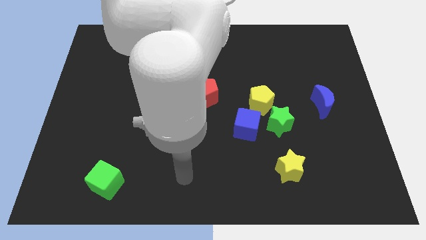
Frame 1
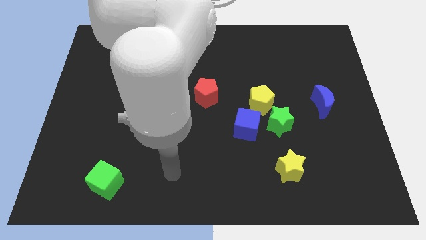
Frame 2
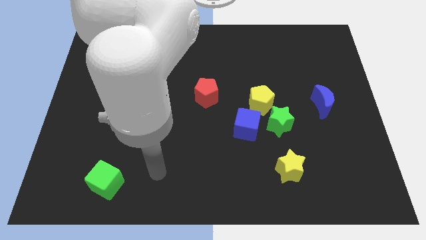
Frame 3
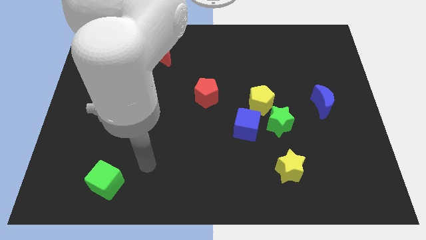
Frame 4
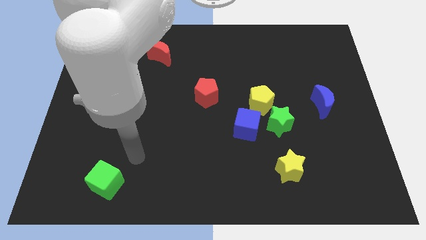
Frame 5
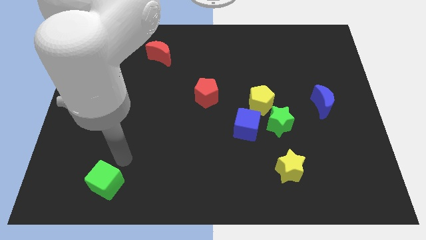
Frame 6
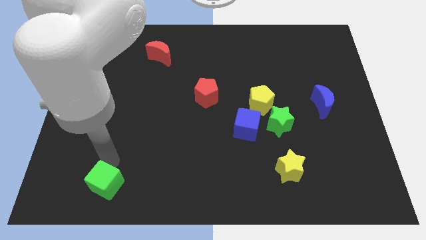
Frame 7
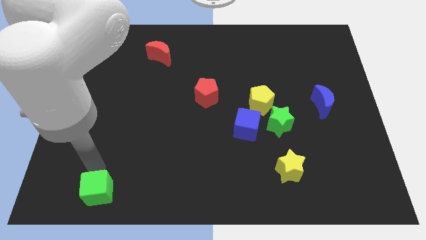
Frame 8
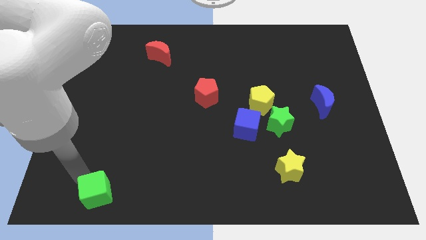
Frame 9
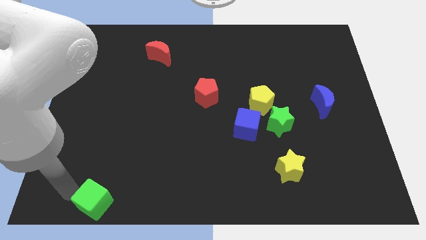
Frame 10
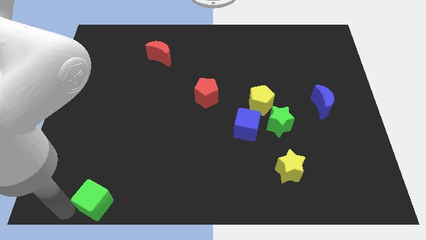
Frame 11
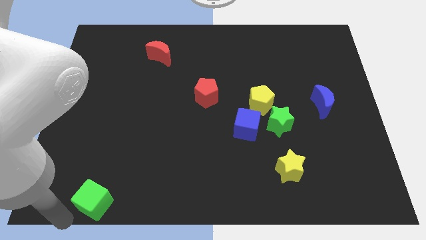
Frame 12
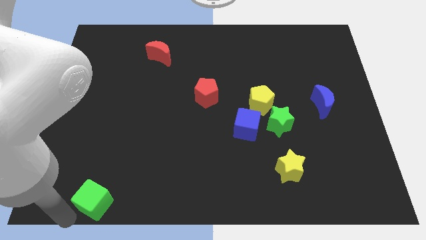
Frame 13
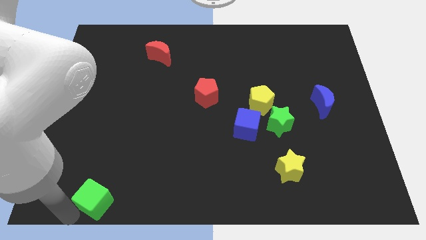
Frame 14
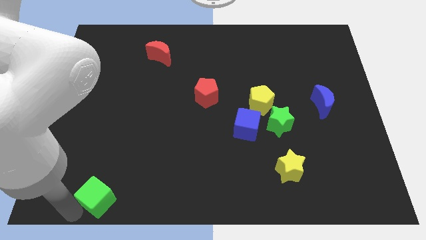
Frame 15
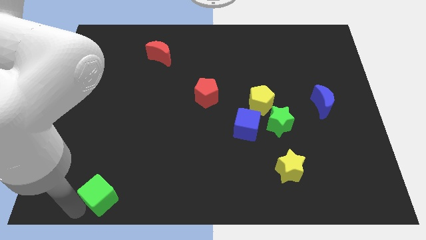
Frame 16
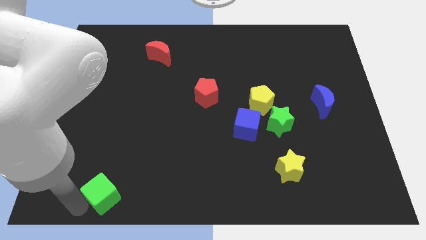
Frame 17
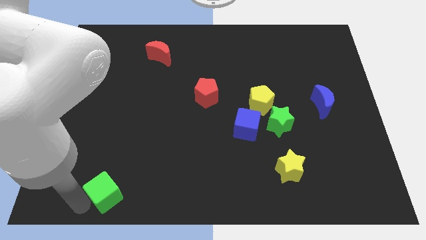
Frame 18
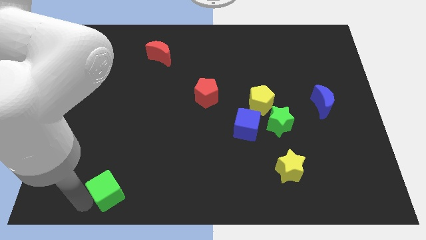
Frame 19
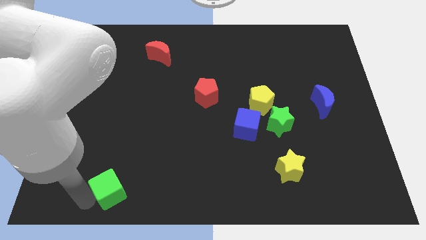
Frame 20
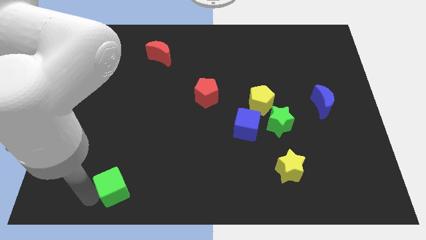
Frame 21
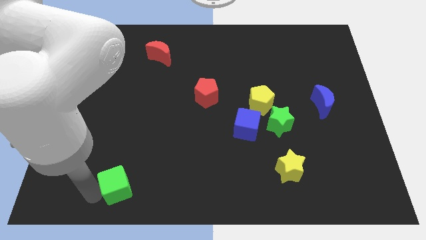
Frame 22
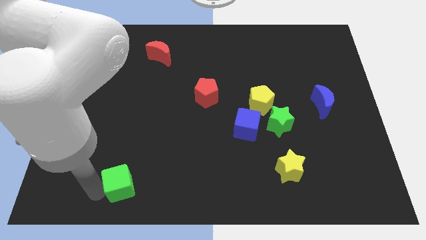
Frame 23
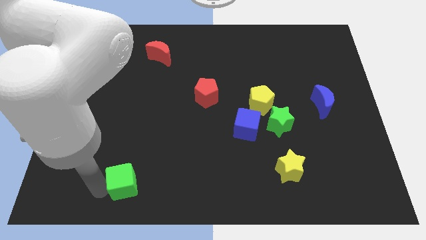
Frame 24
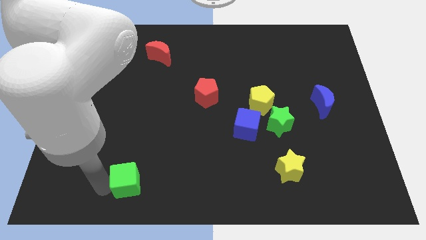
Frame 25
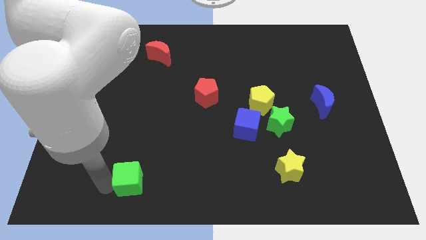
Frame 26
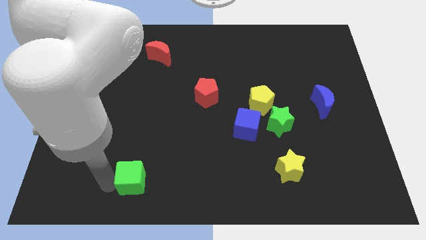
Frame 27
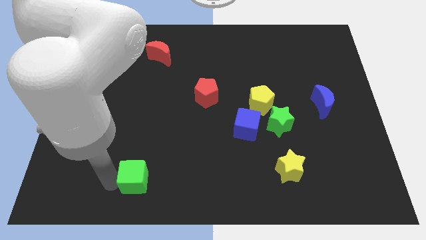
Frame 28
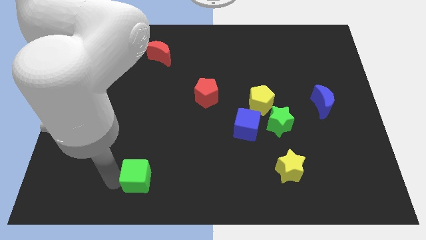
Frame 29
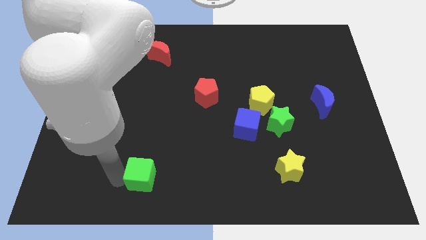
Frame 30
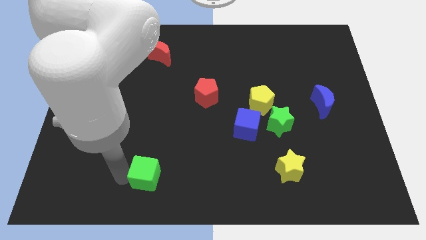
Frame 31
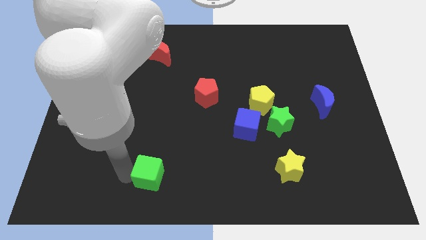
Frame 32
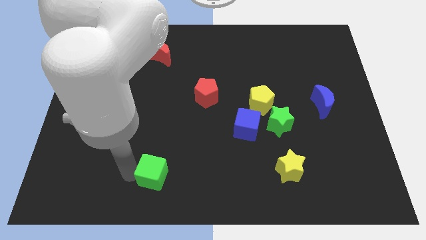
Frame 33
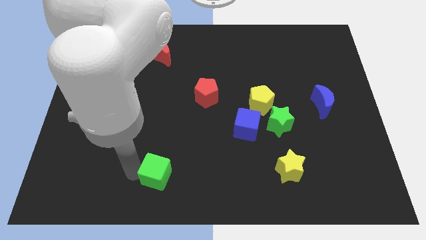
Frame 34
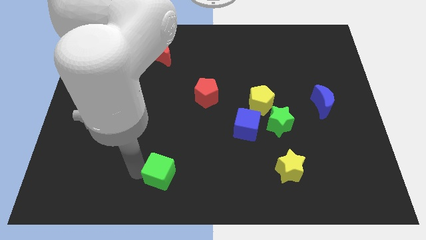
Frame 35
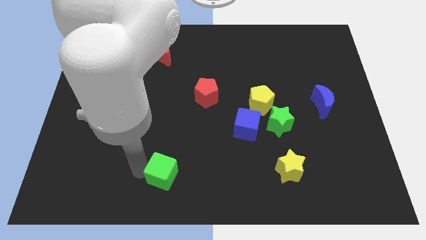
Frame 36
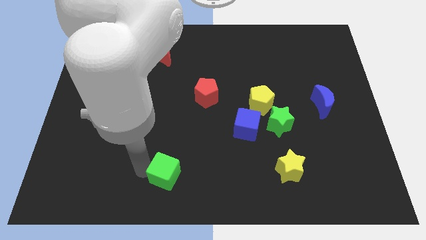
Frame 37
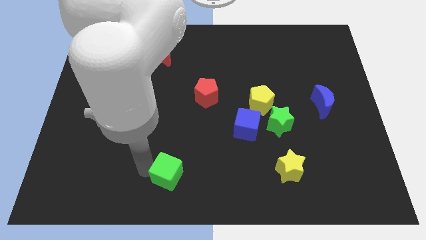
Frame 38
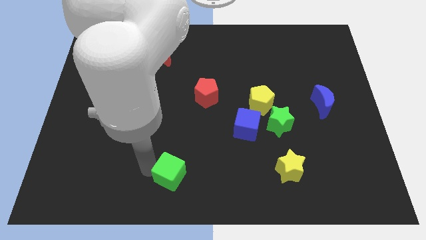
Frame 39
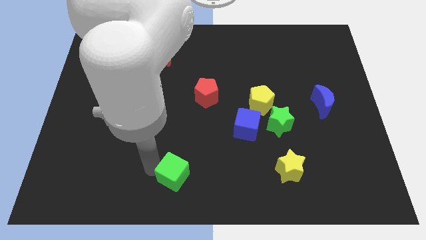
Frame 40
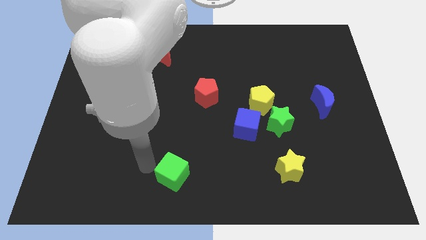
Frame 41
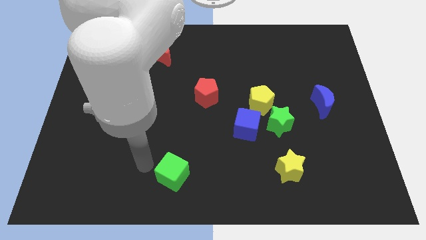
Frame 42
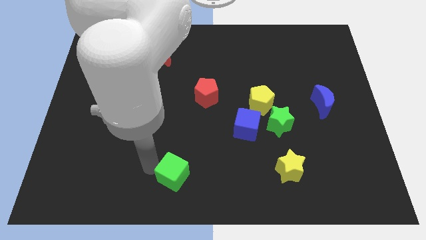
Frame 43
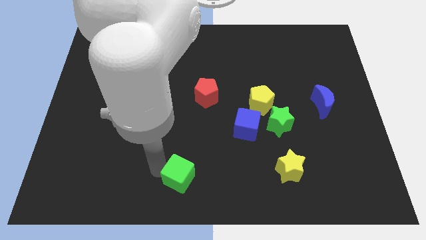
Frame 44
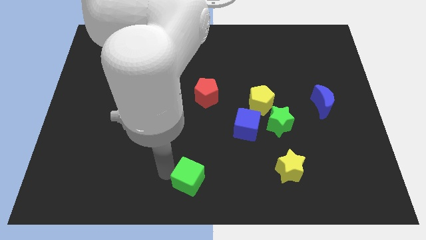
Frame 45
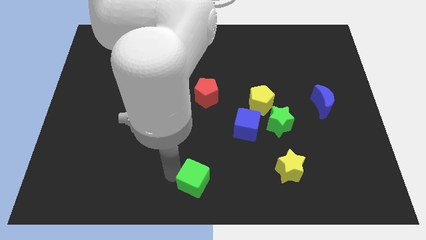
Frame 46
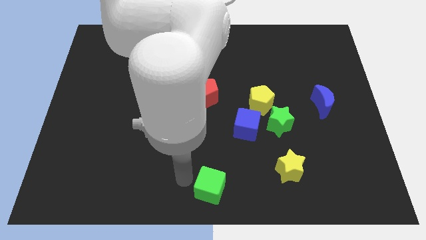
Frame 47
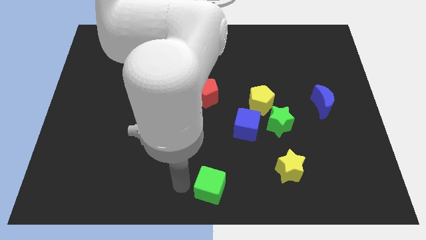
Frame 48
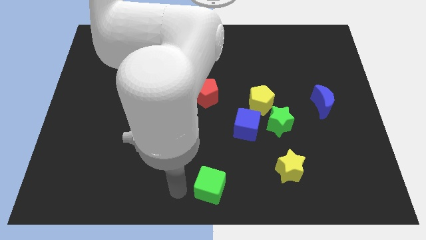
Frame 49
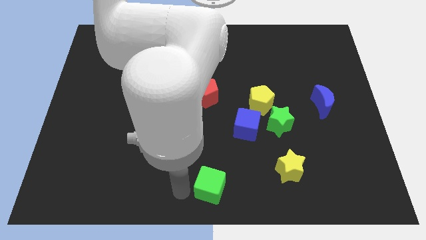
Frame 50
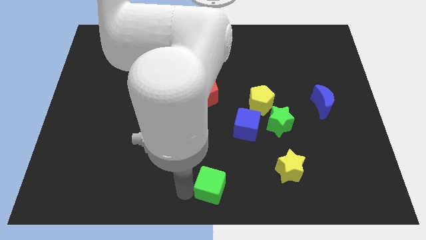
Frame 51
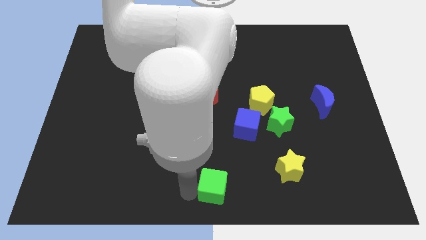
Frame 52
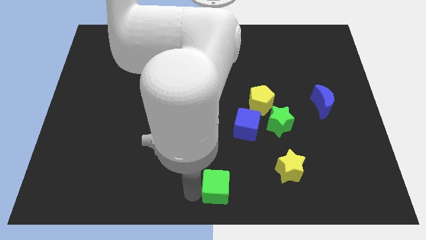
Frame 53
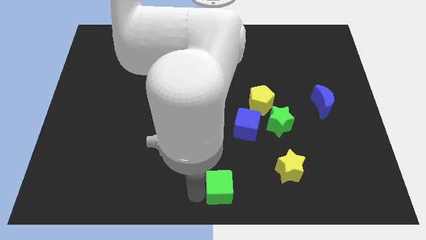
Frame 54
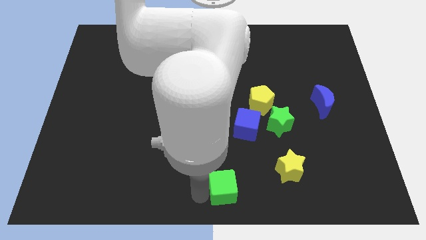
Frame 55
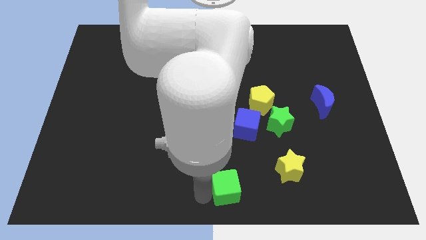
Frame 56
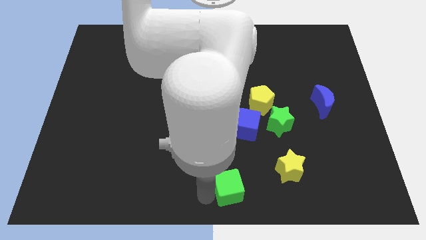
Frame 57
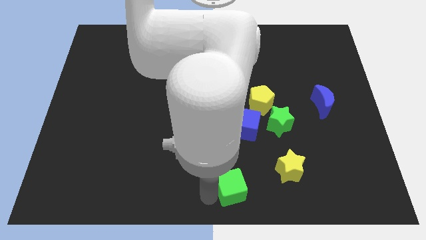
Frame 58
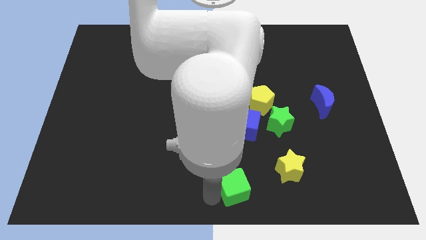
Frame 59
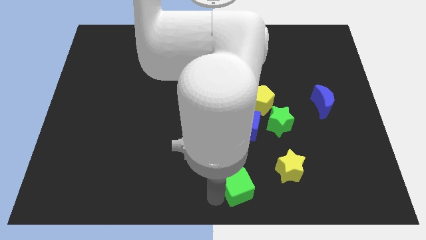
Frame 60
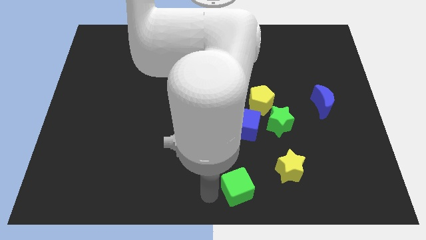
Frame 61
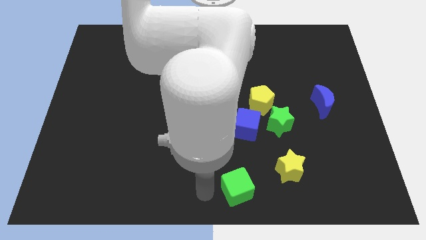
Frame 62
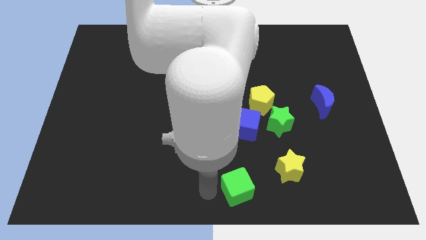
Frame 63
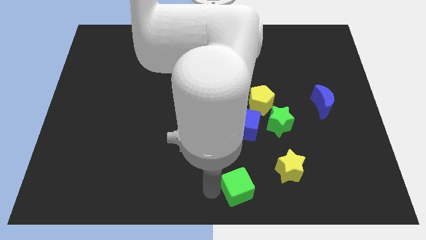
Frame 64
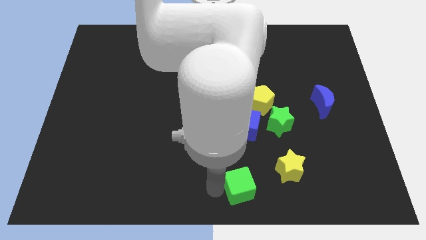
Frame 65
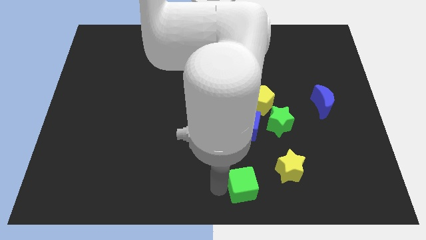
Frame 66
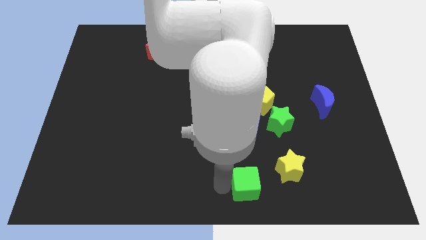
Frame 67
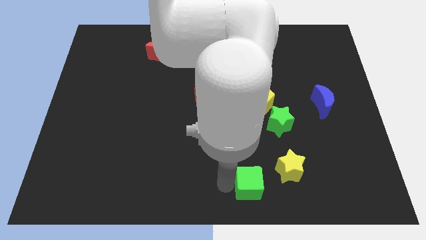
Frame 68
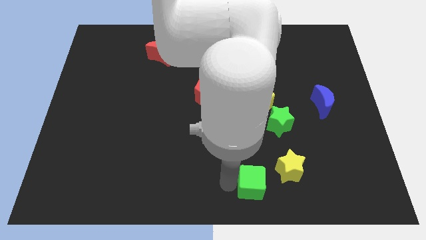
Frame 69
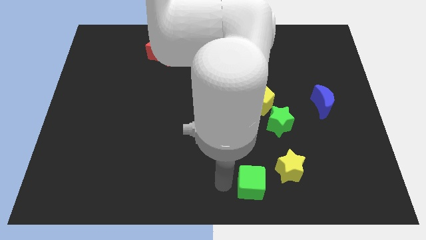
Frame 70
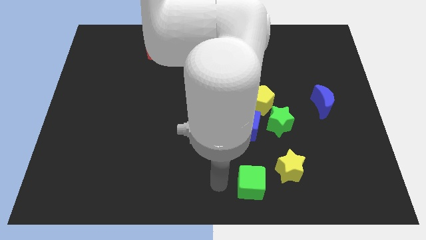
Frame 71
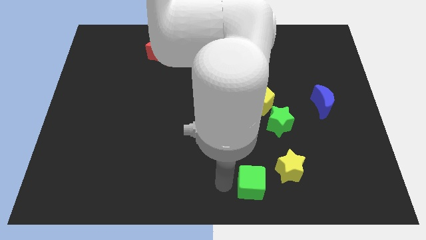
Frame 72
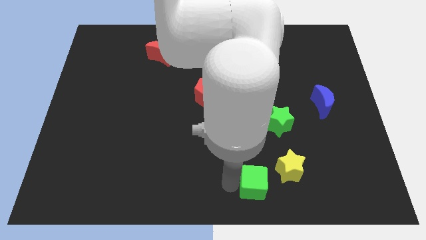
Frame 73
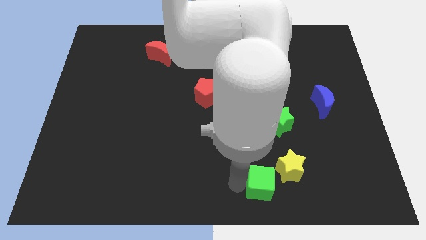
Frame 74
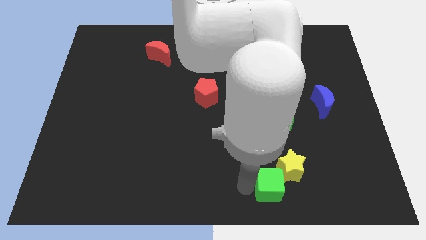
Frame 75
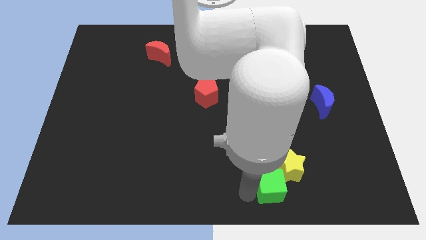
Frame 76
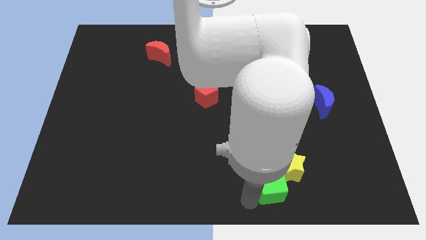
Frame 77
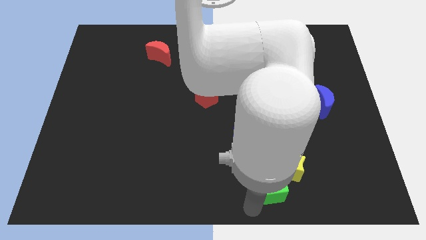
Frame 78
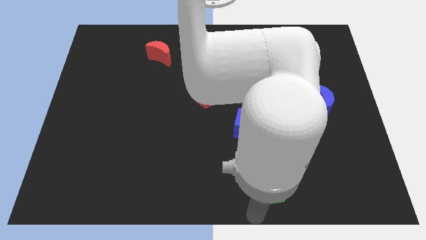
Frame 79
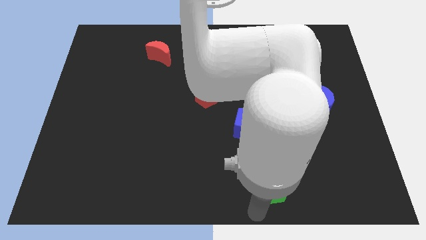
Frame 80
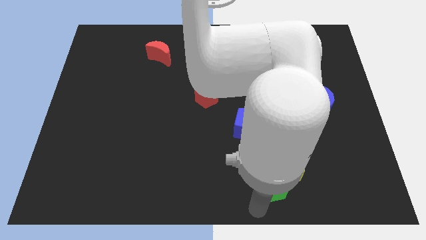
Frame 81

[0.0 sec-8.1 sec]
slide the green cube to the bottom of the green star
